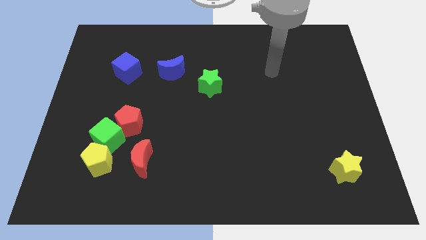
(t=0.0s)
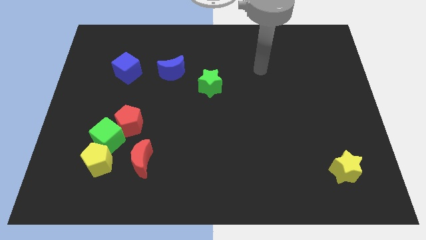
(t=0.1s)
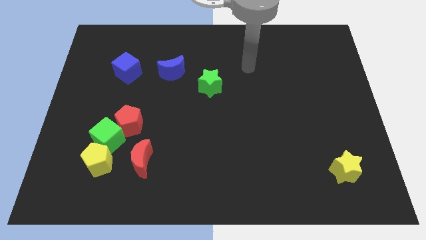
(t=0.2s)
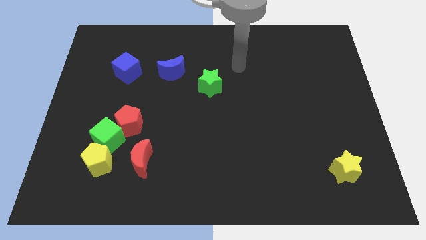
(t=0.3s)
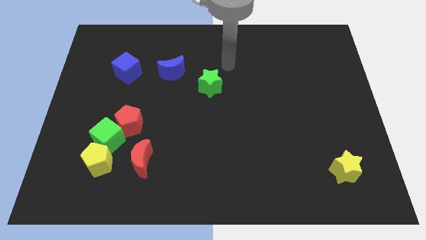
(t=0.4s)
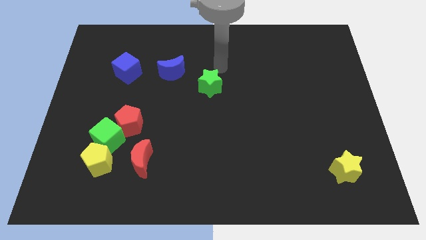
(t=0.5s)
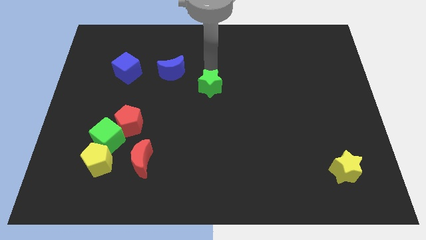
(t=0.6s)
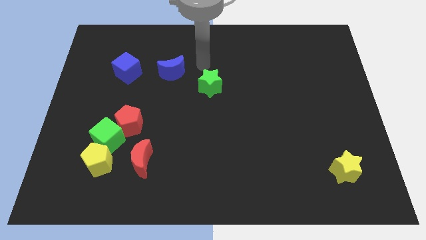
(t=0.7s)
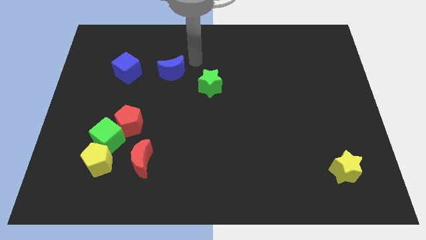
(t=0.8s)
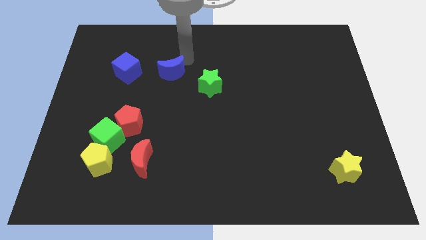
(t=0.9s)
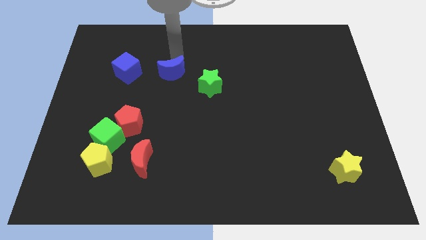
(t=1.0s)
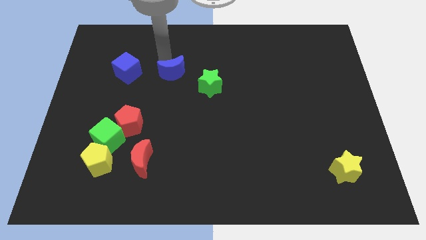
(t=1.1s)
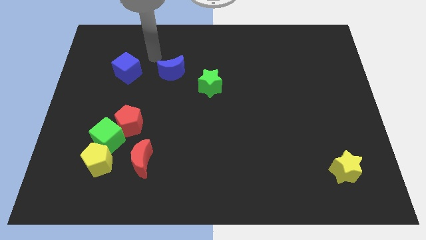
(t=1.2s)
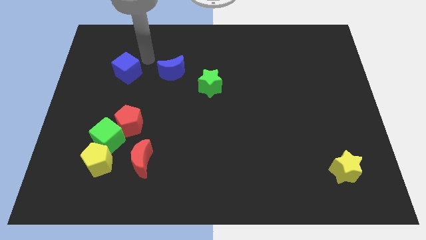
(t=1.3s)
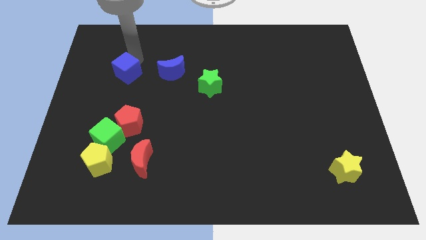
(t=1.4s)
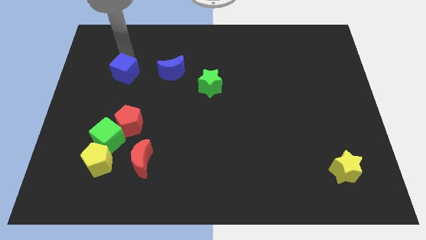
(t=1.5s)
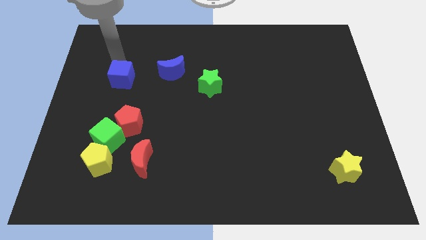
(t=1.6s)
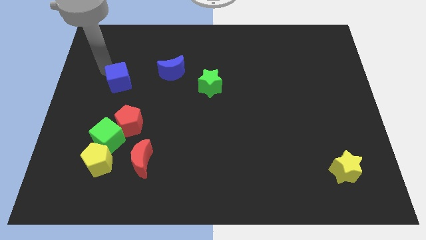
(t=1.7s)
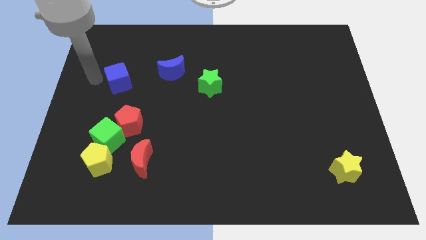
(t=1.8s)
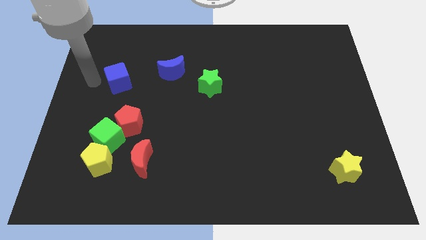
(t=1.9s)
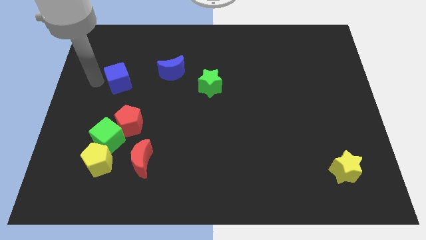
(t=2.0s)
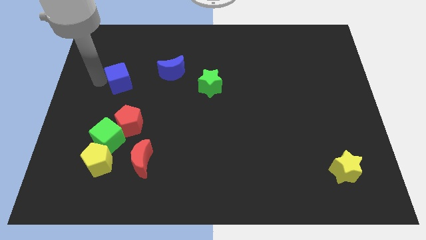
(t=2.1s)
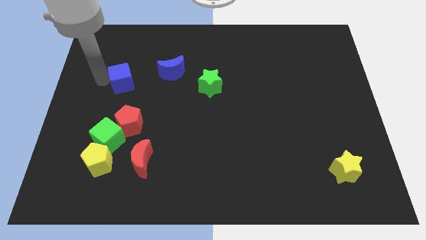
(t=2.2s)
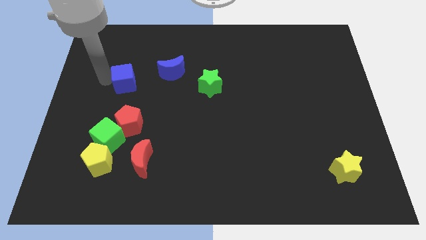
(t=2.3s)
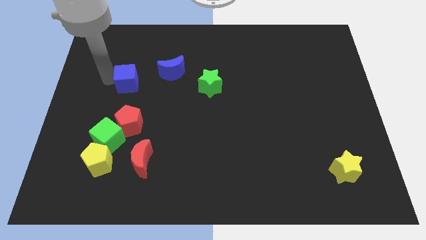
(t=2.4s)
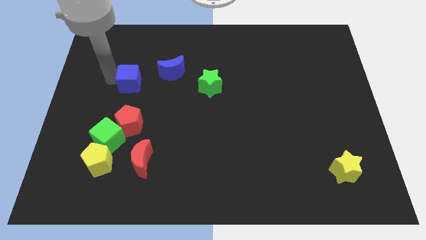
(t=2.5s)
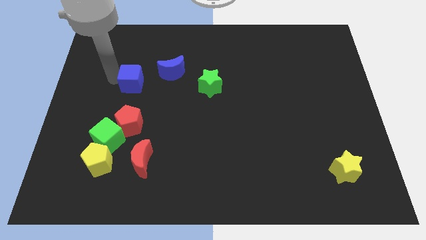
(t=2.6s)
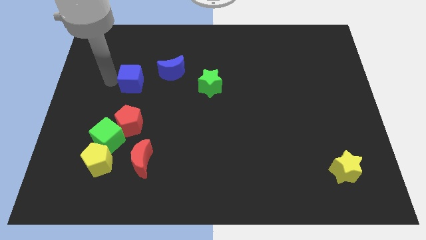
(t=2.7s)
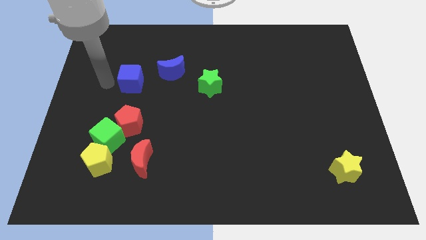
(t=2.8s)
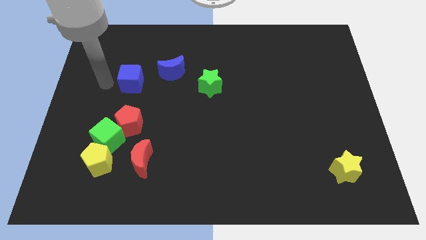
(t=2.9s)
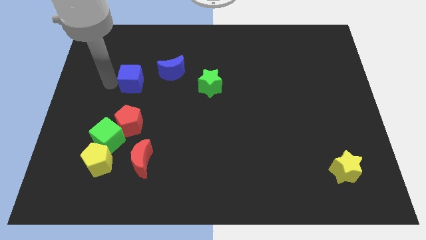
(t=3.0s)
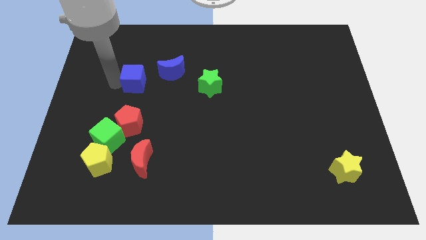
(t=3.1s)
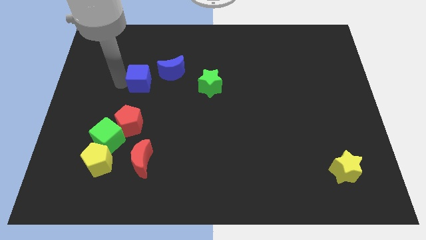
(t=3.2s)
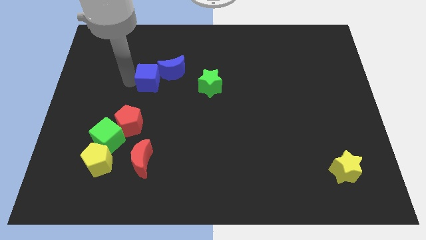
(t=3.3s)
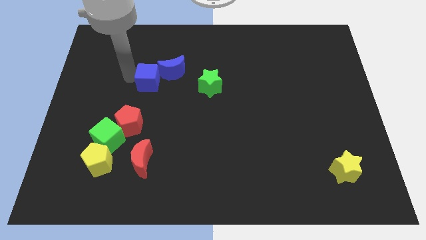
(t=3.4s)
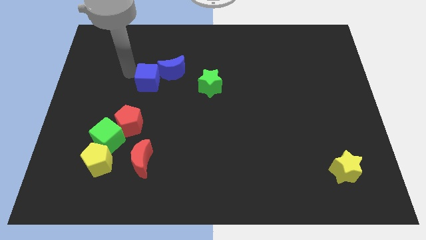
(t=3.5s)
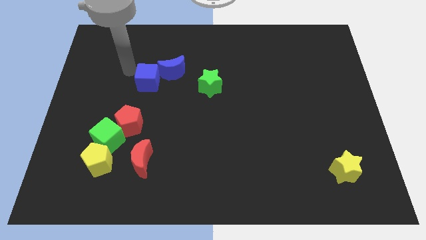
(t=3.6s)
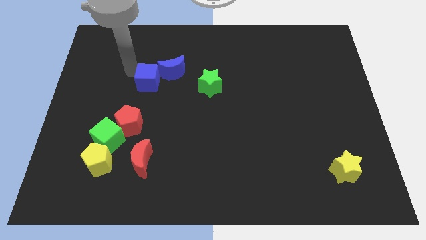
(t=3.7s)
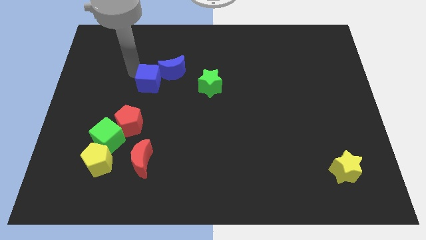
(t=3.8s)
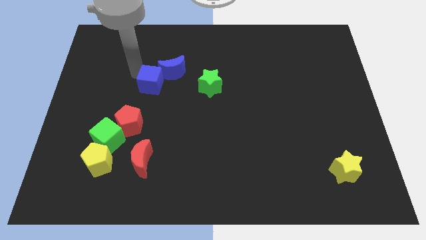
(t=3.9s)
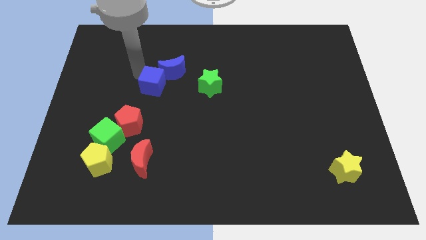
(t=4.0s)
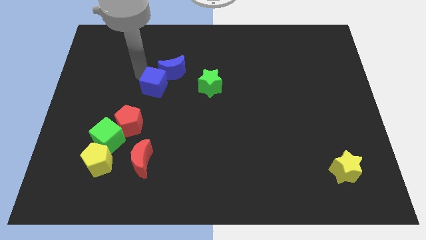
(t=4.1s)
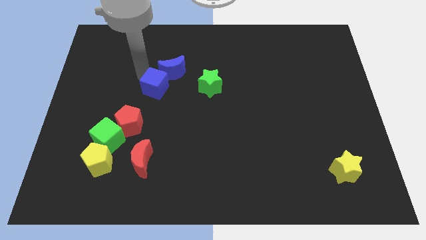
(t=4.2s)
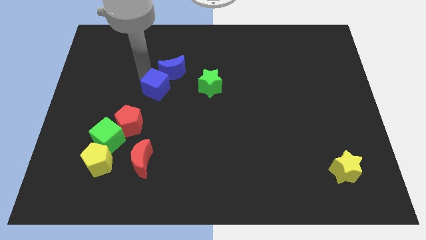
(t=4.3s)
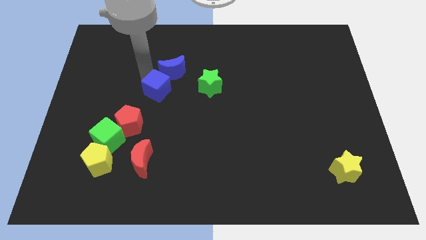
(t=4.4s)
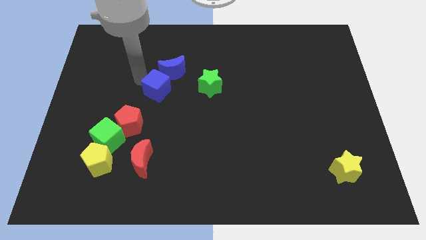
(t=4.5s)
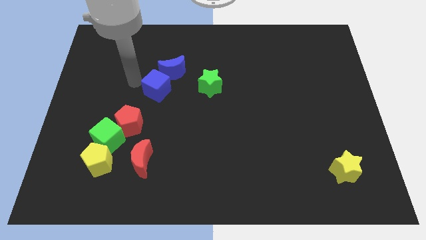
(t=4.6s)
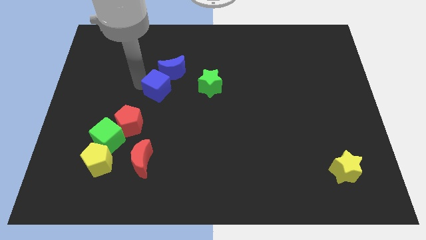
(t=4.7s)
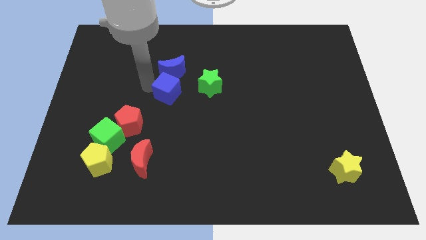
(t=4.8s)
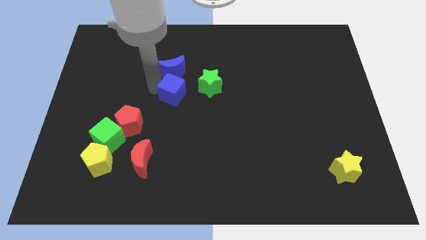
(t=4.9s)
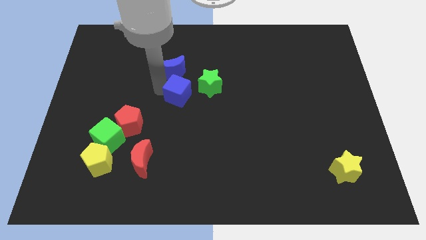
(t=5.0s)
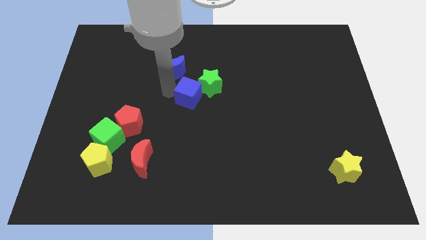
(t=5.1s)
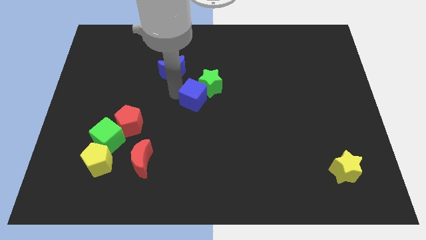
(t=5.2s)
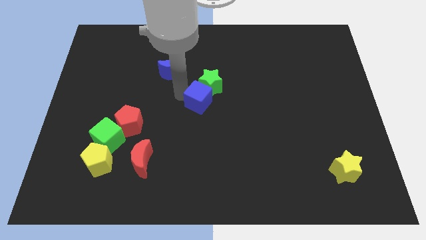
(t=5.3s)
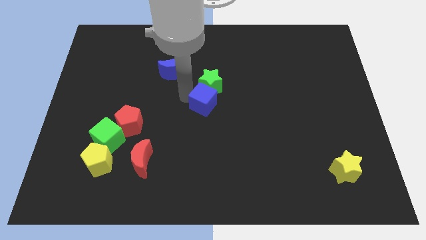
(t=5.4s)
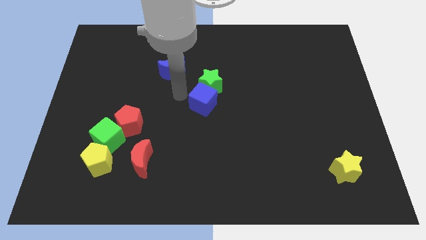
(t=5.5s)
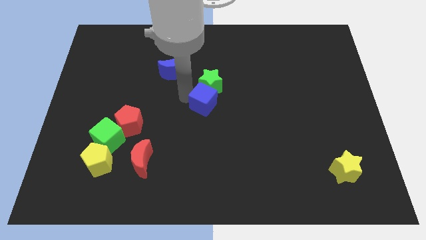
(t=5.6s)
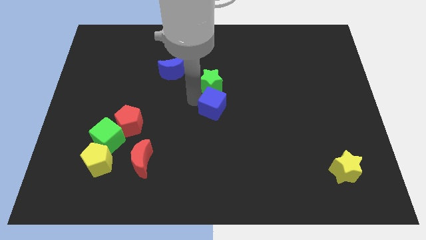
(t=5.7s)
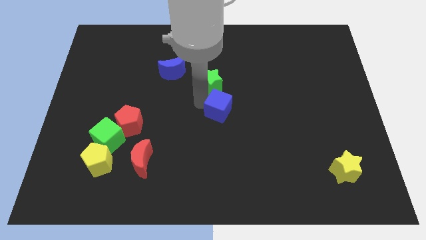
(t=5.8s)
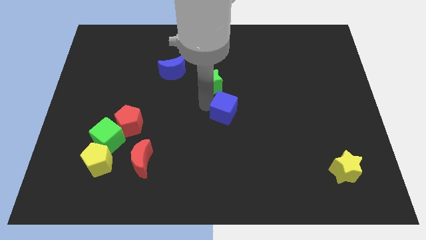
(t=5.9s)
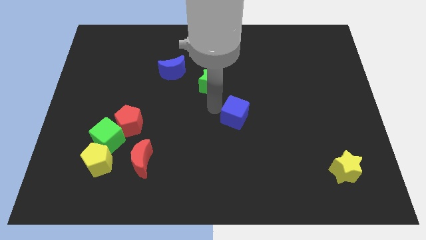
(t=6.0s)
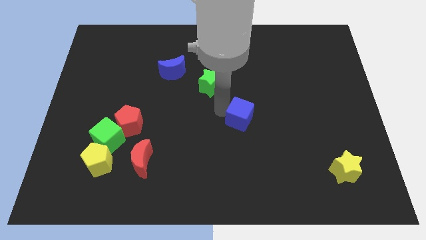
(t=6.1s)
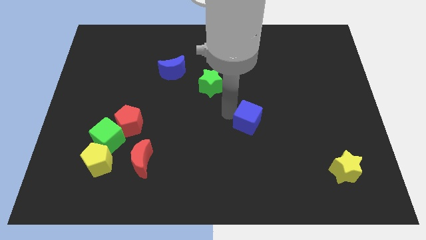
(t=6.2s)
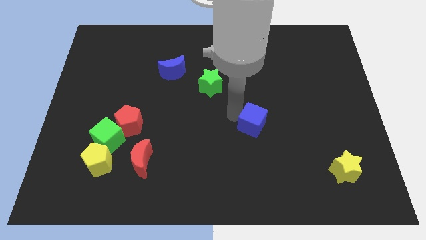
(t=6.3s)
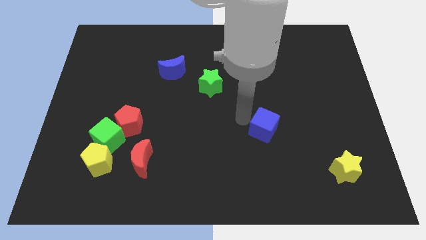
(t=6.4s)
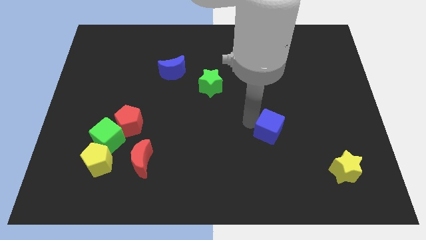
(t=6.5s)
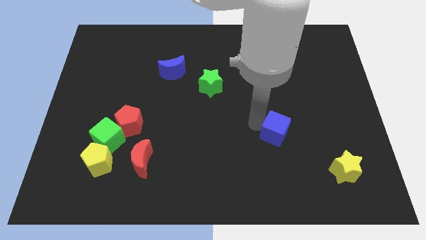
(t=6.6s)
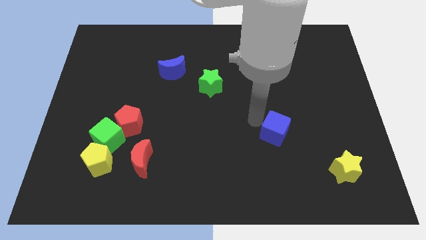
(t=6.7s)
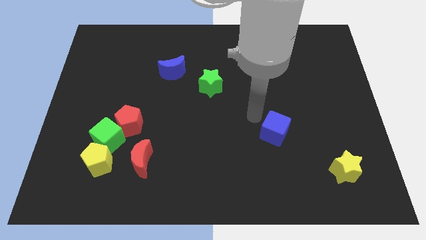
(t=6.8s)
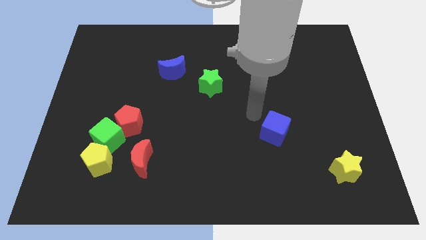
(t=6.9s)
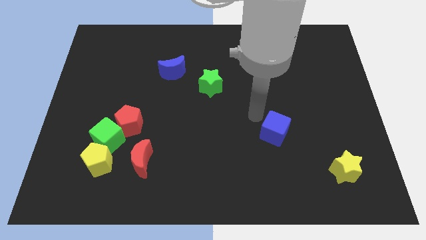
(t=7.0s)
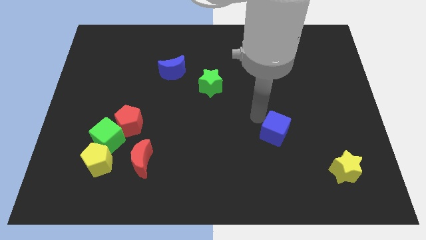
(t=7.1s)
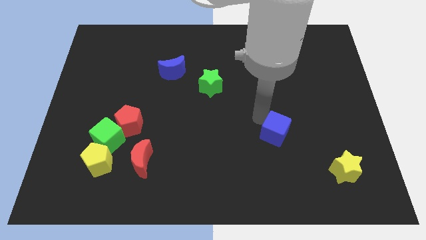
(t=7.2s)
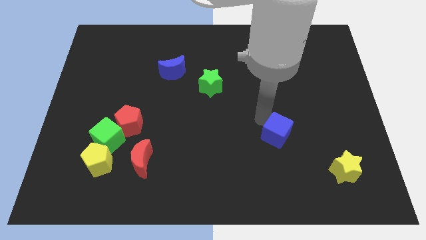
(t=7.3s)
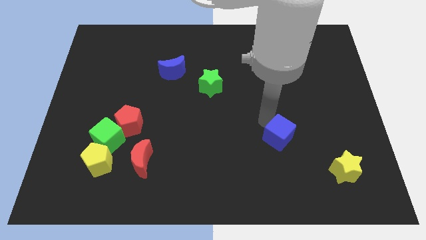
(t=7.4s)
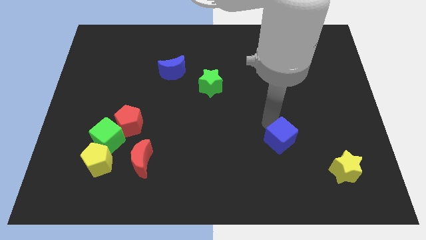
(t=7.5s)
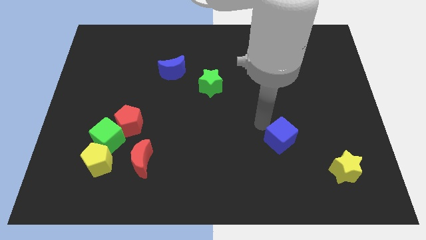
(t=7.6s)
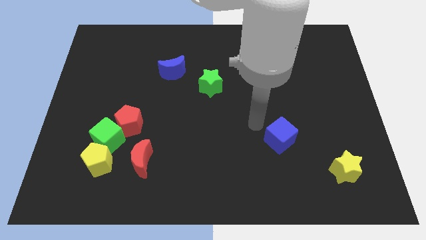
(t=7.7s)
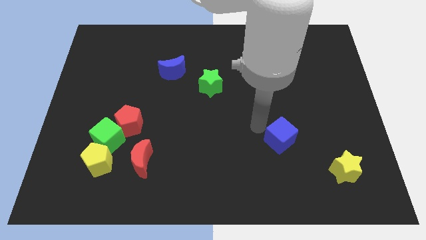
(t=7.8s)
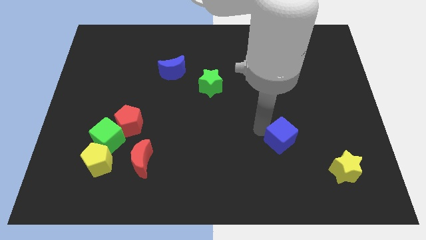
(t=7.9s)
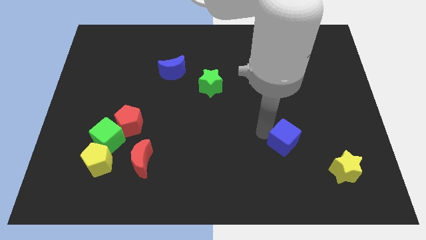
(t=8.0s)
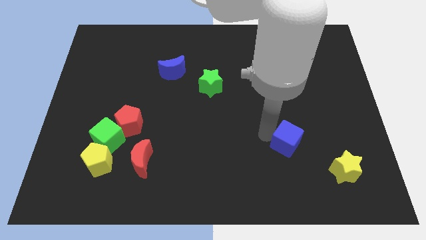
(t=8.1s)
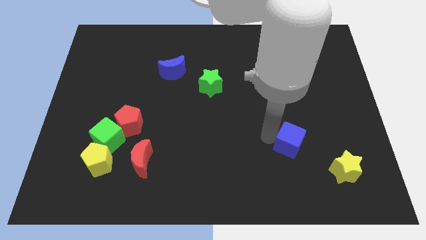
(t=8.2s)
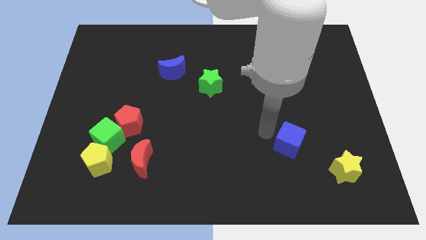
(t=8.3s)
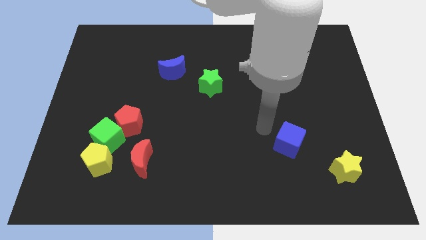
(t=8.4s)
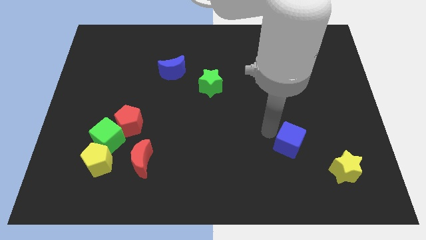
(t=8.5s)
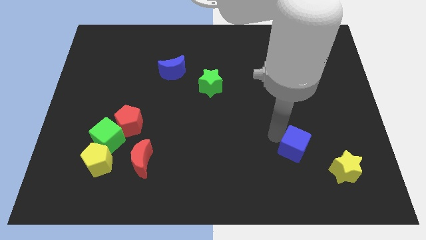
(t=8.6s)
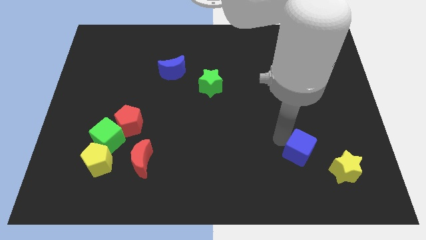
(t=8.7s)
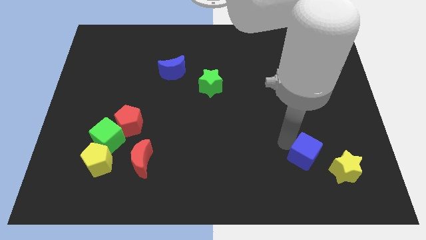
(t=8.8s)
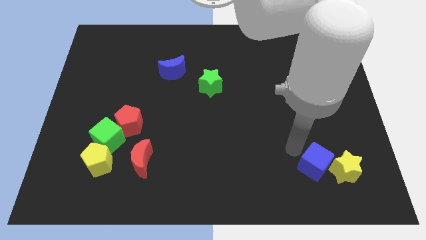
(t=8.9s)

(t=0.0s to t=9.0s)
put the blue cube towards the yellow star
